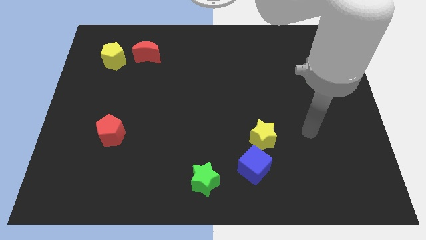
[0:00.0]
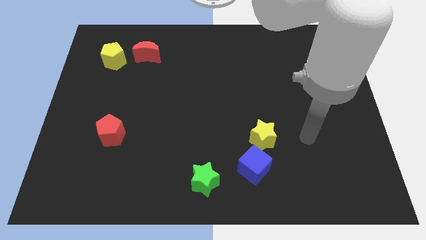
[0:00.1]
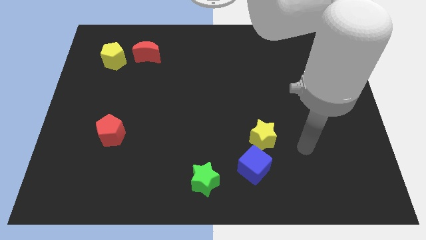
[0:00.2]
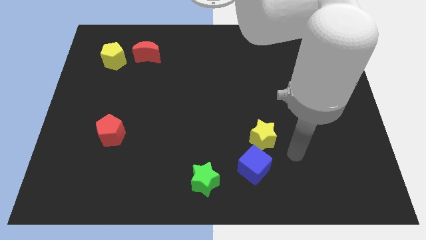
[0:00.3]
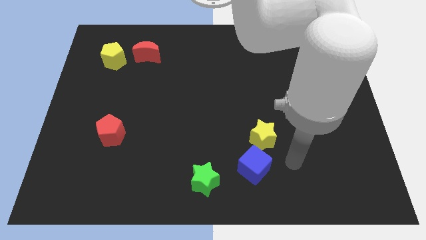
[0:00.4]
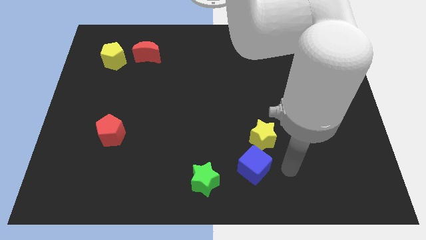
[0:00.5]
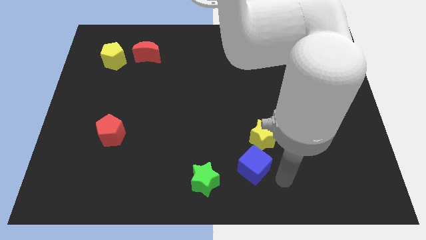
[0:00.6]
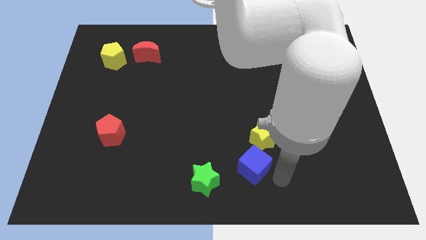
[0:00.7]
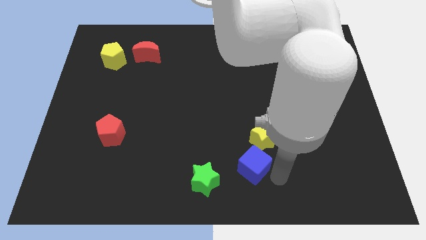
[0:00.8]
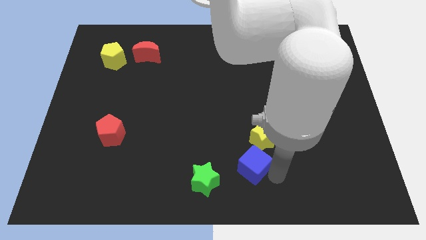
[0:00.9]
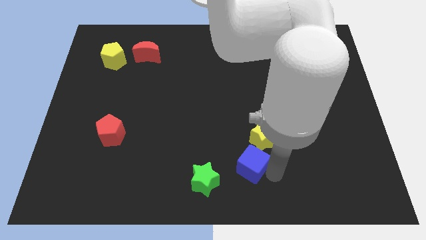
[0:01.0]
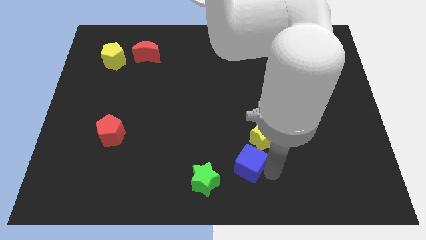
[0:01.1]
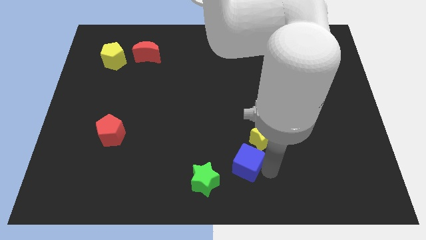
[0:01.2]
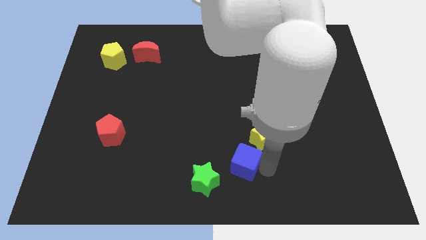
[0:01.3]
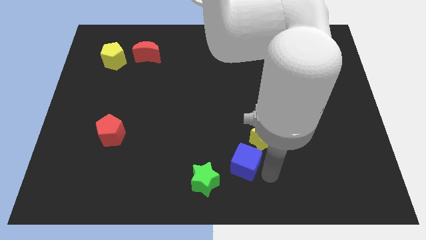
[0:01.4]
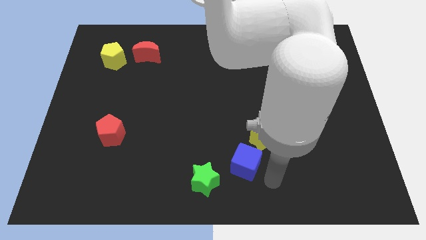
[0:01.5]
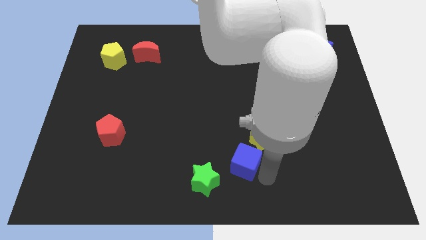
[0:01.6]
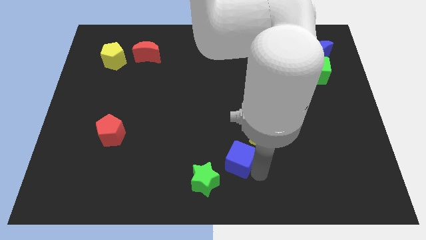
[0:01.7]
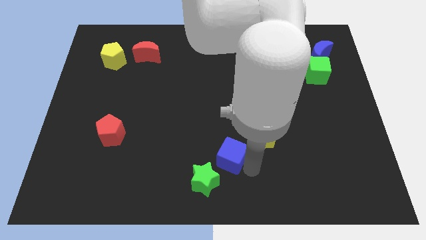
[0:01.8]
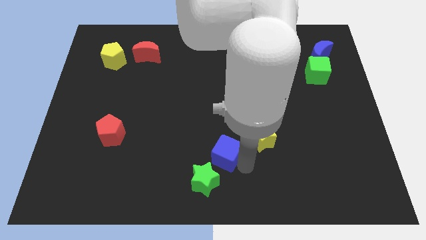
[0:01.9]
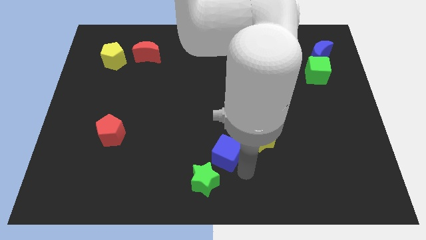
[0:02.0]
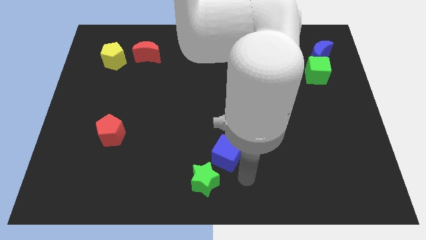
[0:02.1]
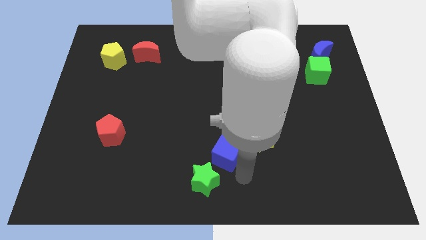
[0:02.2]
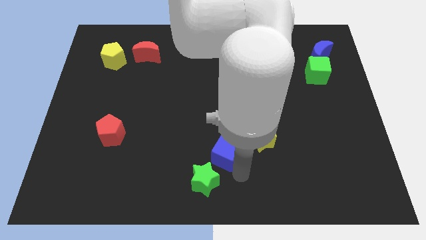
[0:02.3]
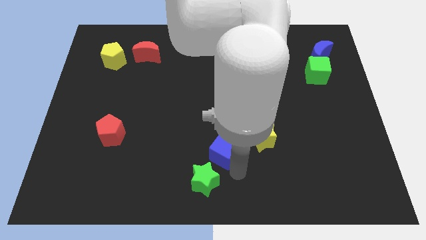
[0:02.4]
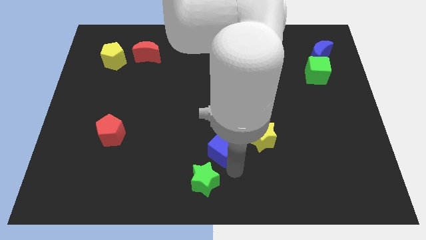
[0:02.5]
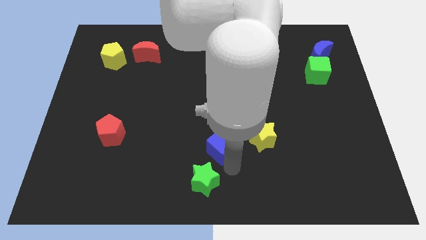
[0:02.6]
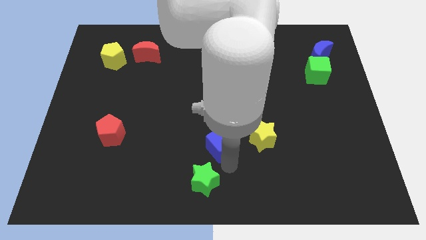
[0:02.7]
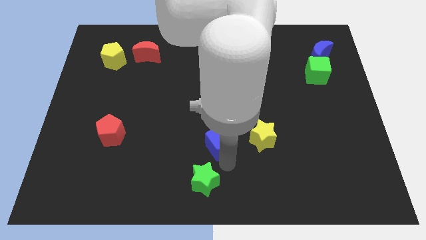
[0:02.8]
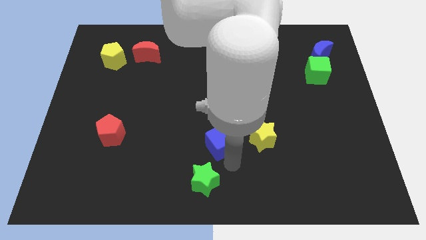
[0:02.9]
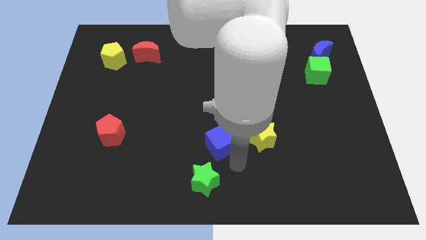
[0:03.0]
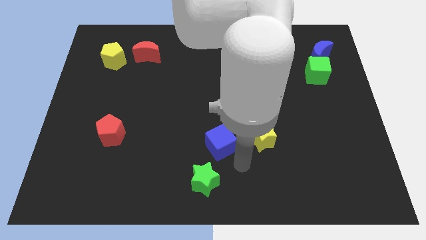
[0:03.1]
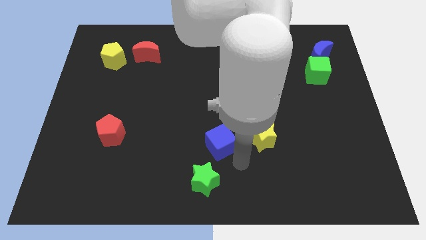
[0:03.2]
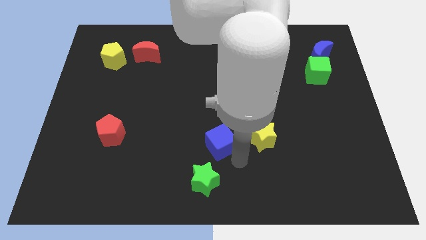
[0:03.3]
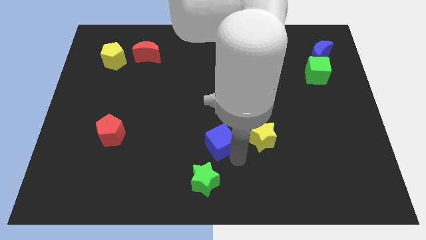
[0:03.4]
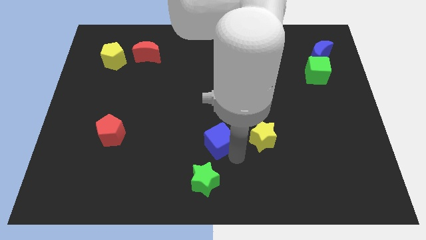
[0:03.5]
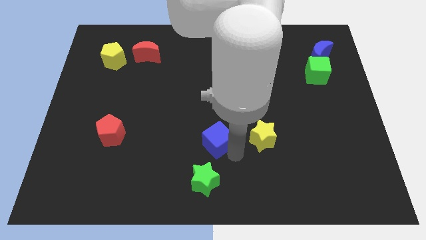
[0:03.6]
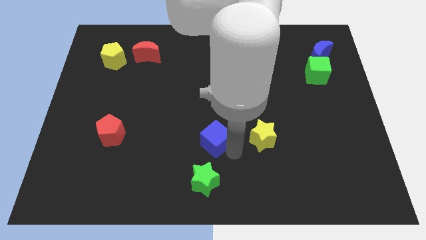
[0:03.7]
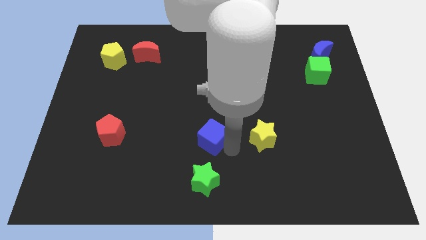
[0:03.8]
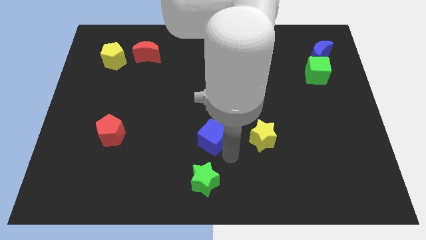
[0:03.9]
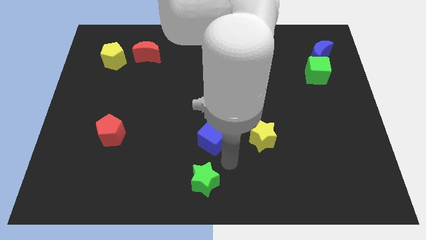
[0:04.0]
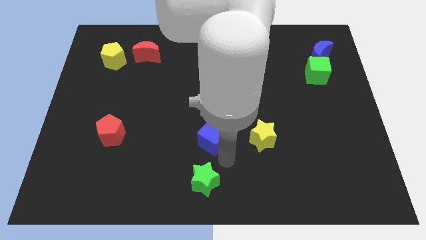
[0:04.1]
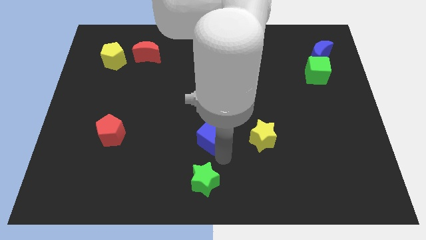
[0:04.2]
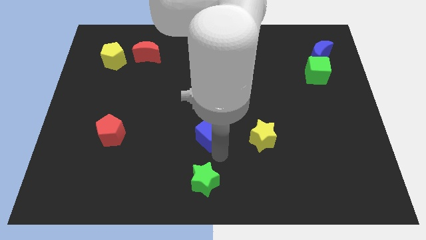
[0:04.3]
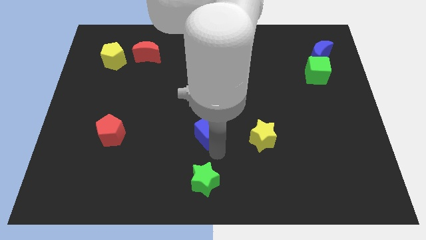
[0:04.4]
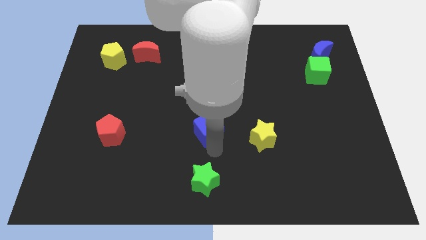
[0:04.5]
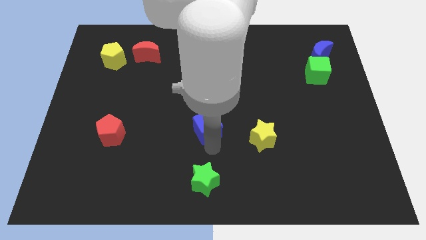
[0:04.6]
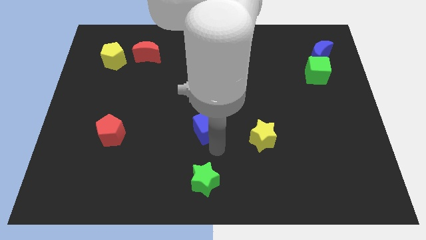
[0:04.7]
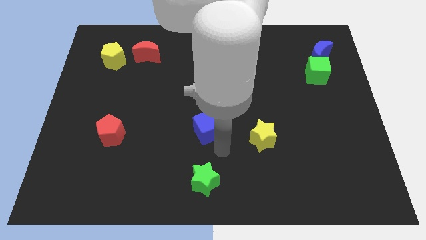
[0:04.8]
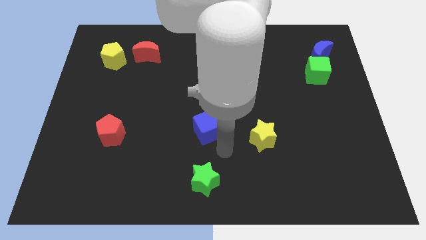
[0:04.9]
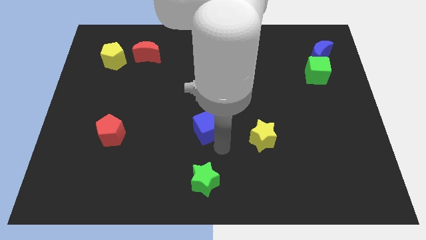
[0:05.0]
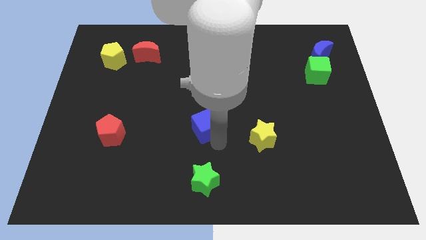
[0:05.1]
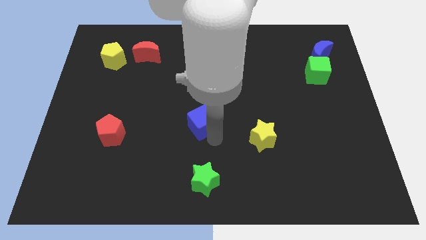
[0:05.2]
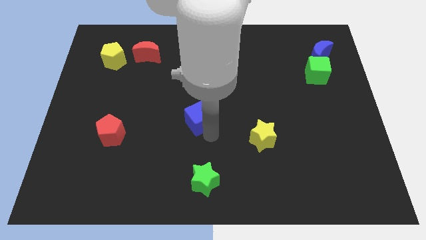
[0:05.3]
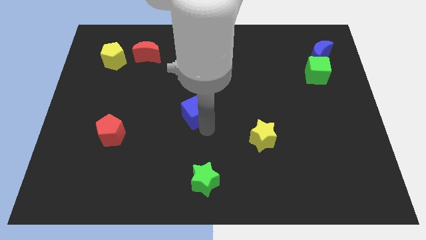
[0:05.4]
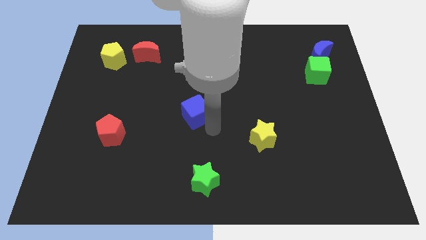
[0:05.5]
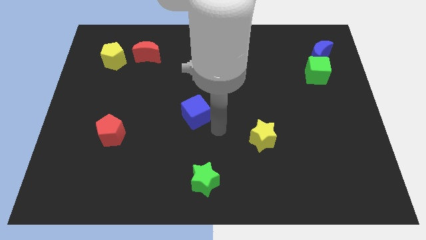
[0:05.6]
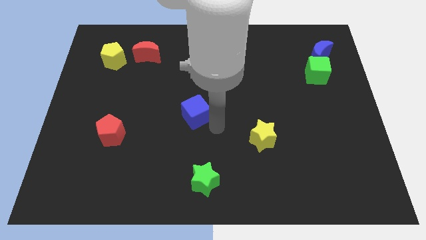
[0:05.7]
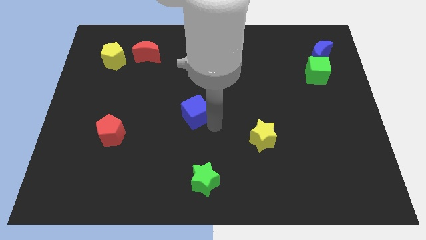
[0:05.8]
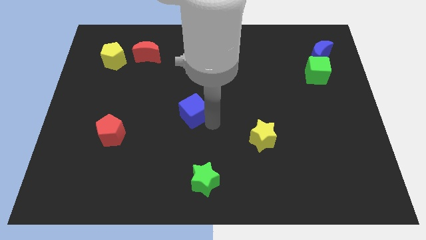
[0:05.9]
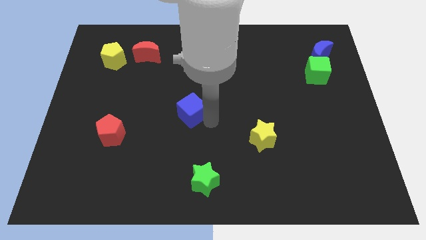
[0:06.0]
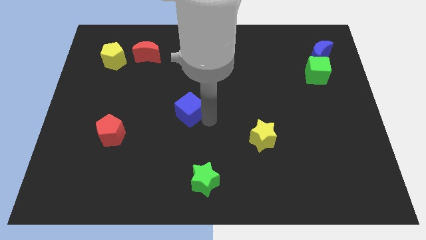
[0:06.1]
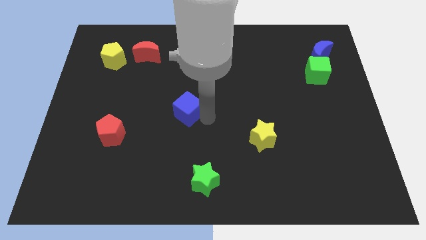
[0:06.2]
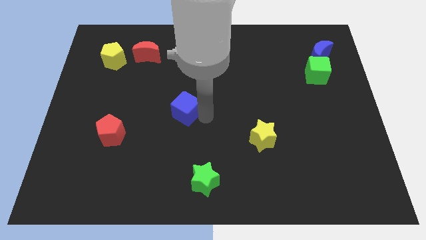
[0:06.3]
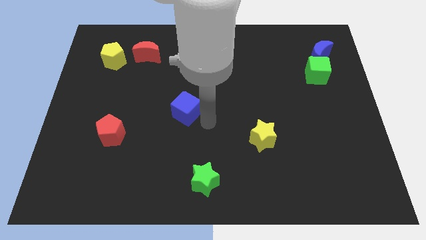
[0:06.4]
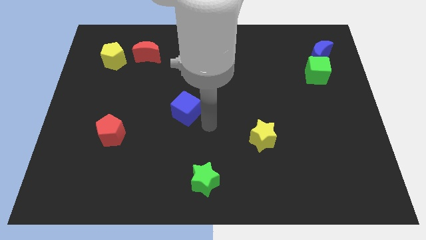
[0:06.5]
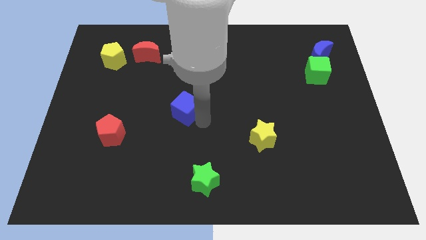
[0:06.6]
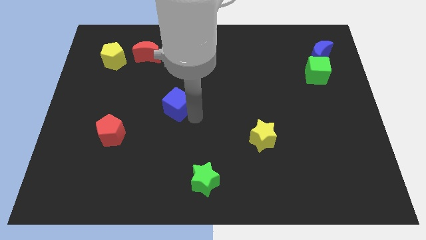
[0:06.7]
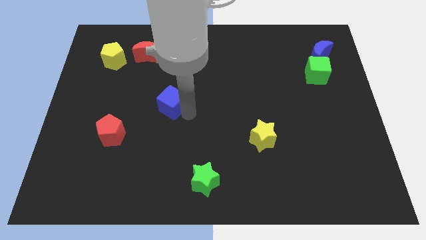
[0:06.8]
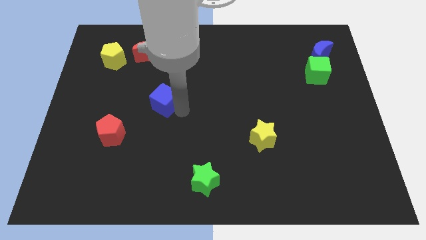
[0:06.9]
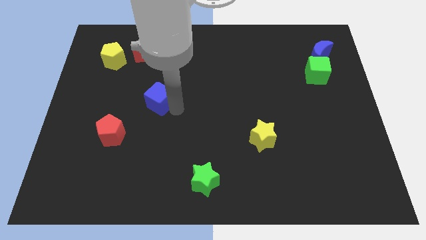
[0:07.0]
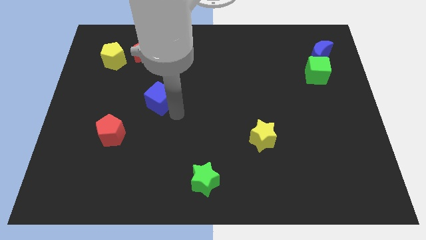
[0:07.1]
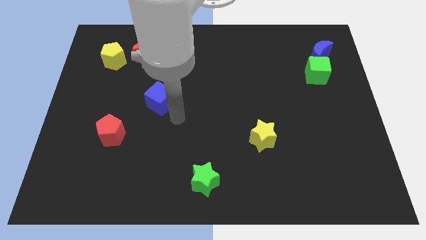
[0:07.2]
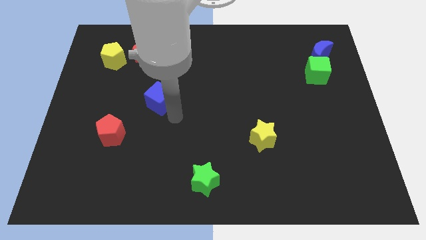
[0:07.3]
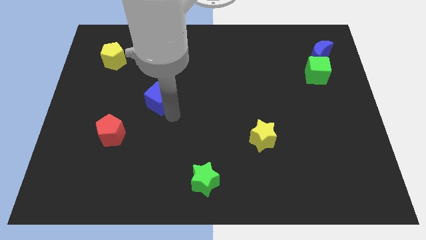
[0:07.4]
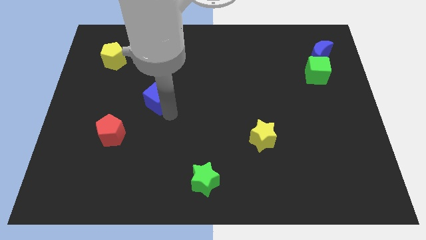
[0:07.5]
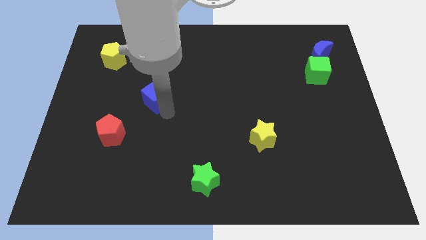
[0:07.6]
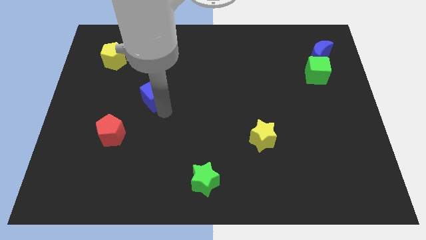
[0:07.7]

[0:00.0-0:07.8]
slide the blue cube to the bottom side of the red moon

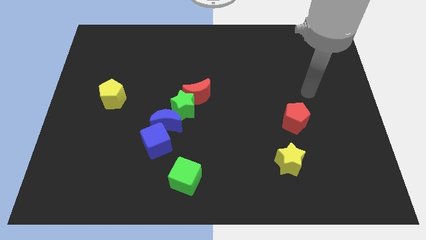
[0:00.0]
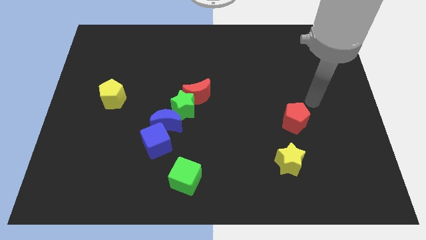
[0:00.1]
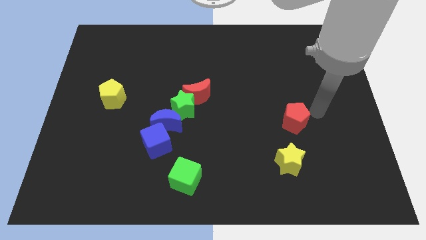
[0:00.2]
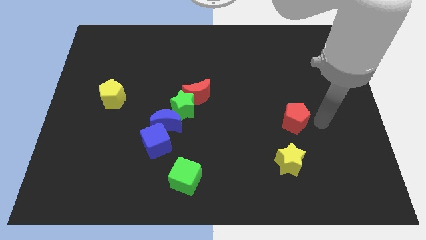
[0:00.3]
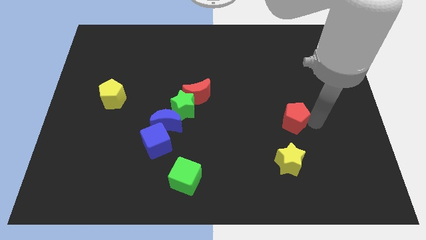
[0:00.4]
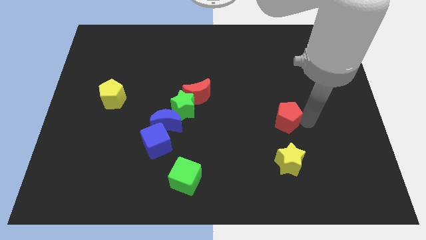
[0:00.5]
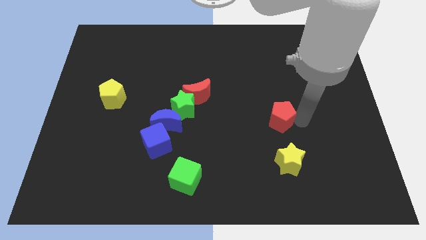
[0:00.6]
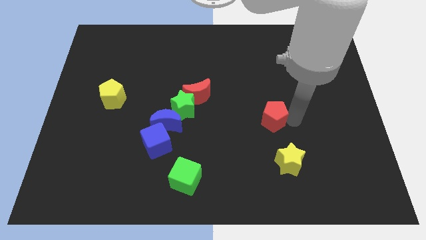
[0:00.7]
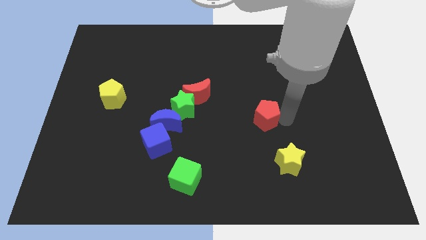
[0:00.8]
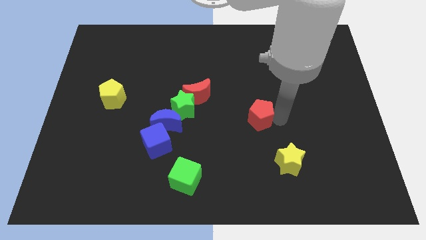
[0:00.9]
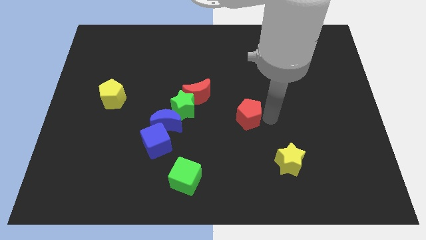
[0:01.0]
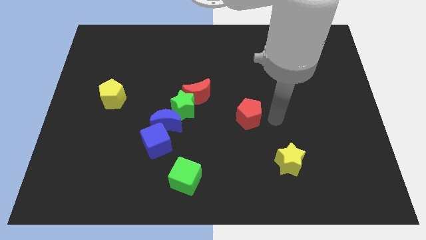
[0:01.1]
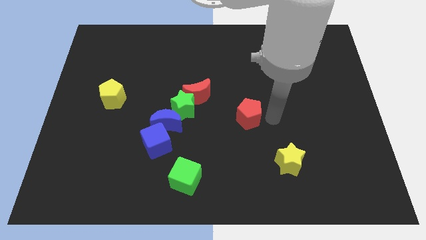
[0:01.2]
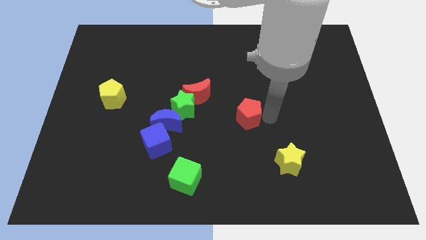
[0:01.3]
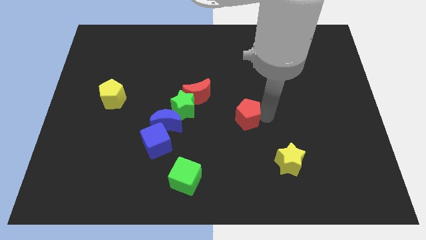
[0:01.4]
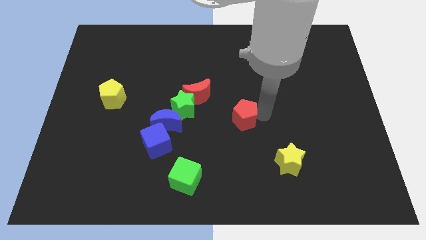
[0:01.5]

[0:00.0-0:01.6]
slide the red pentagon to the bottom right side of the red moon
